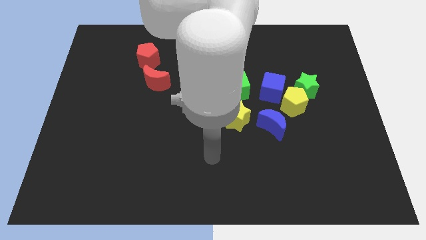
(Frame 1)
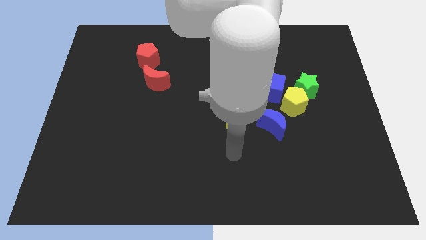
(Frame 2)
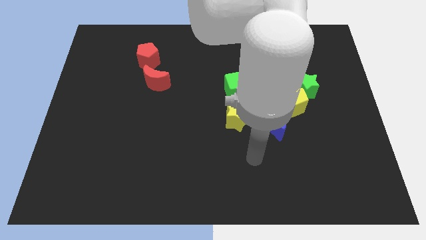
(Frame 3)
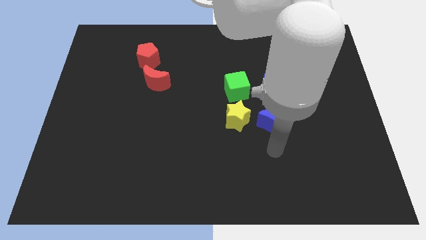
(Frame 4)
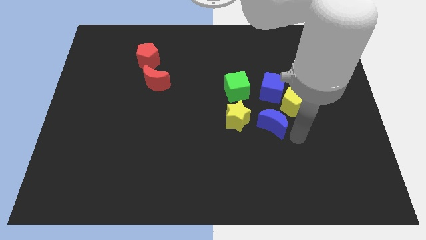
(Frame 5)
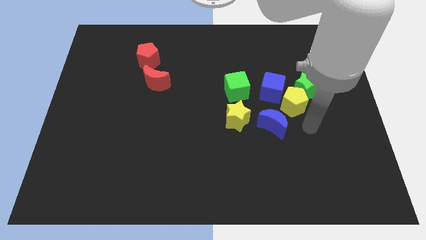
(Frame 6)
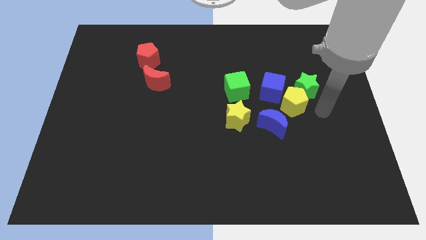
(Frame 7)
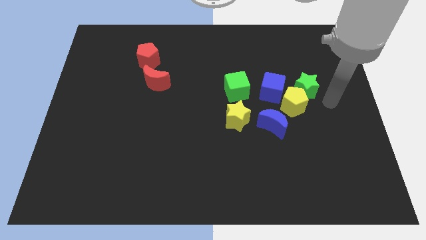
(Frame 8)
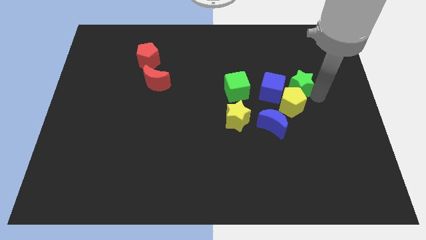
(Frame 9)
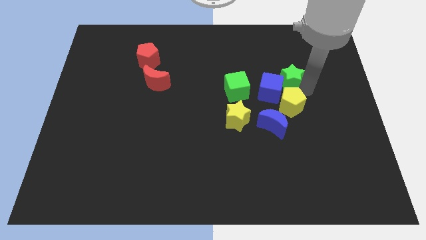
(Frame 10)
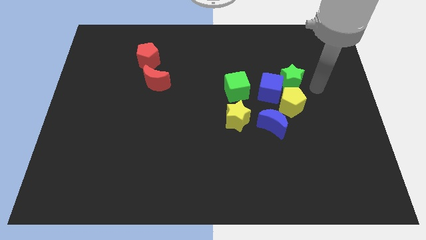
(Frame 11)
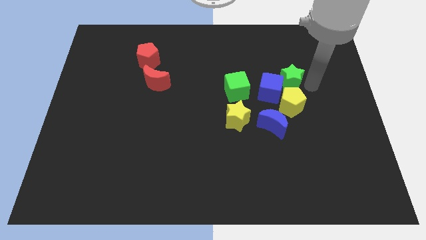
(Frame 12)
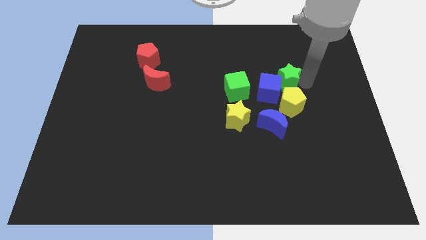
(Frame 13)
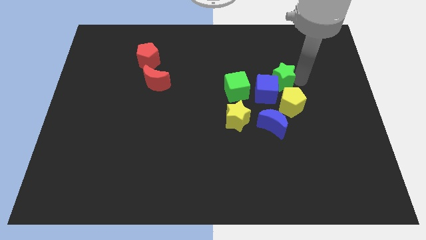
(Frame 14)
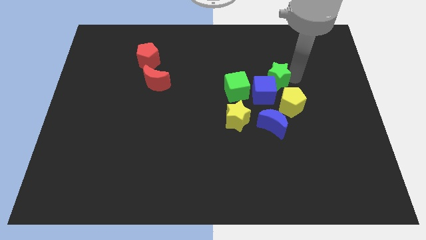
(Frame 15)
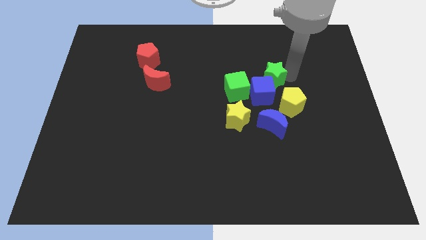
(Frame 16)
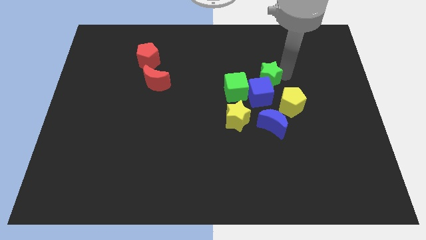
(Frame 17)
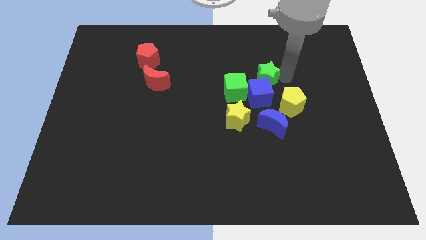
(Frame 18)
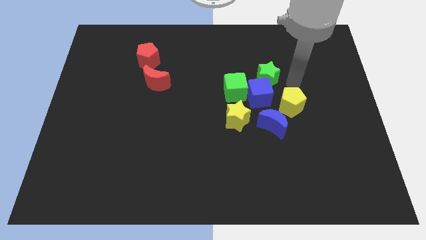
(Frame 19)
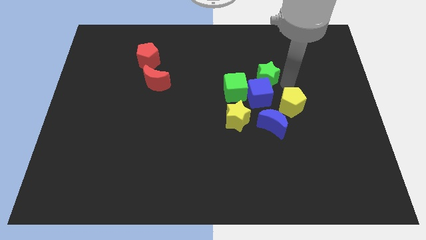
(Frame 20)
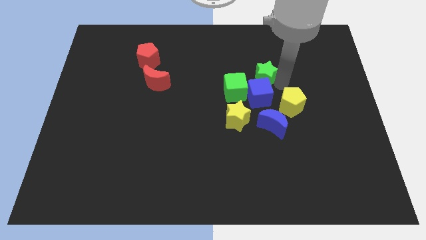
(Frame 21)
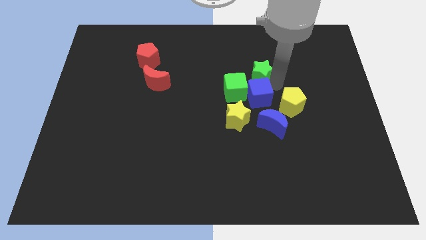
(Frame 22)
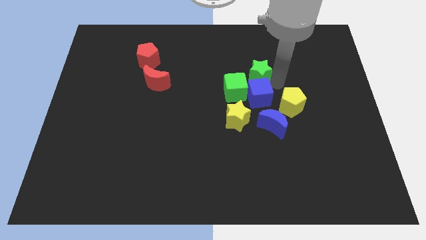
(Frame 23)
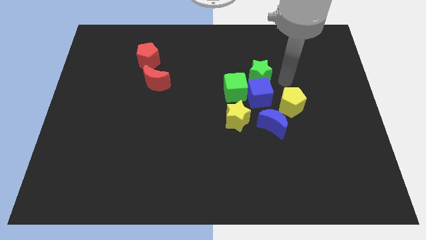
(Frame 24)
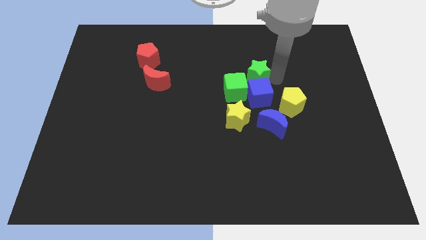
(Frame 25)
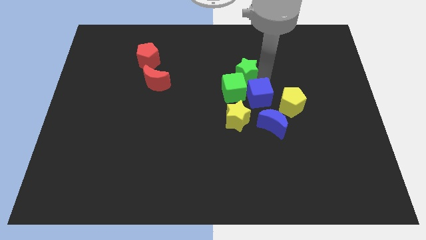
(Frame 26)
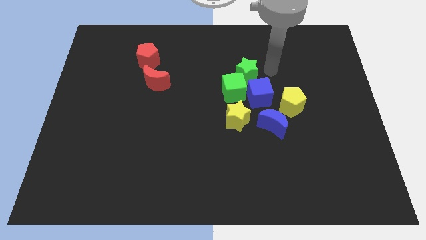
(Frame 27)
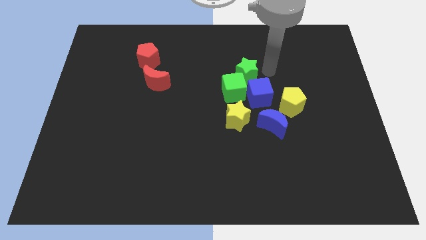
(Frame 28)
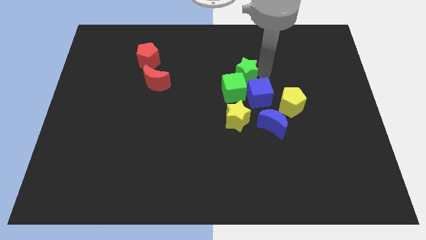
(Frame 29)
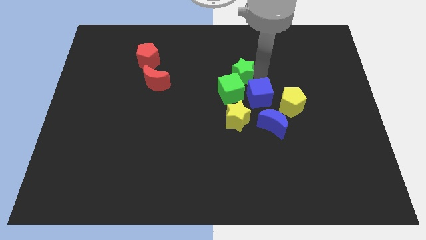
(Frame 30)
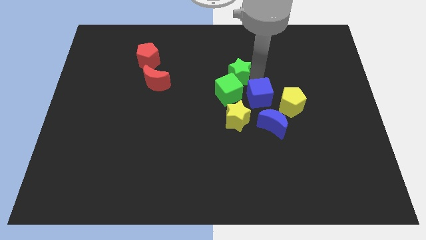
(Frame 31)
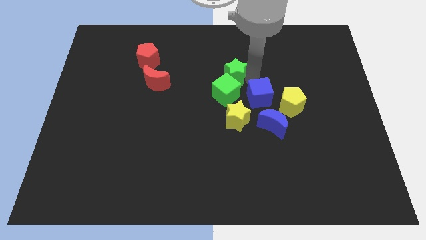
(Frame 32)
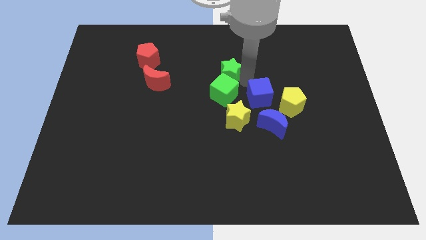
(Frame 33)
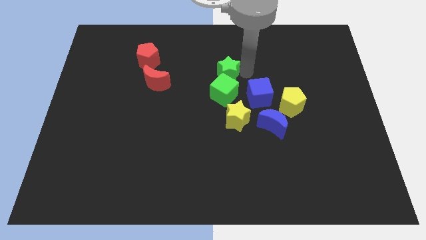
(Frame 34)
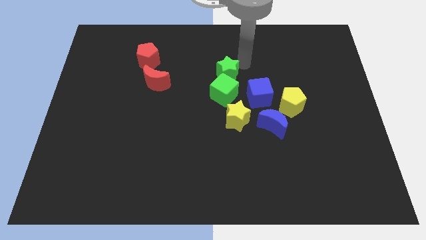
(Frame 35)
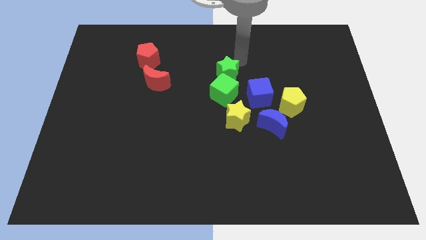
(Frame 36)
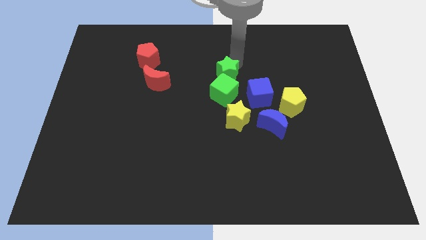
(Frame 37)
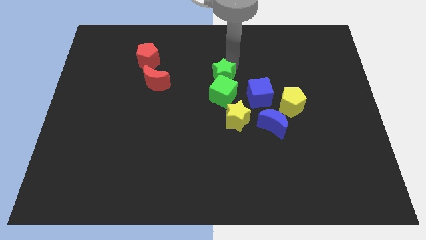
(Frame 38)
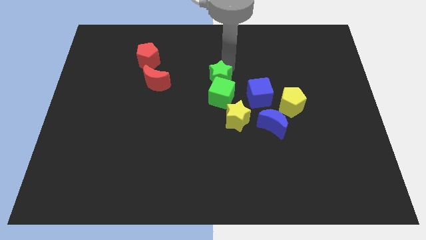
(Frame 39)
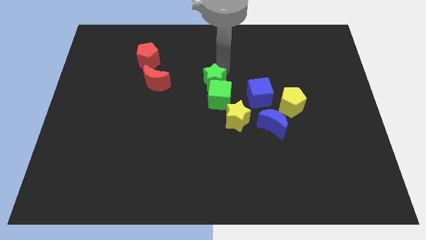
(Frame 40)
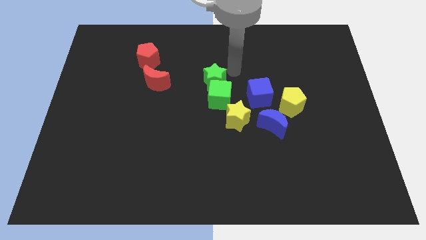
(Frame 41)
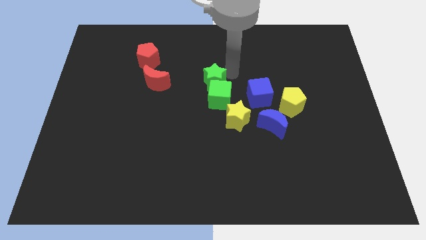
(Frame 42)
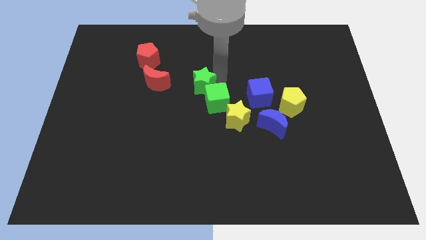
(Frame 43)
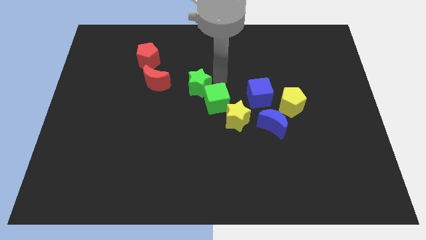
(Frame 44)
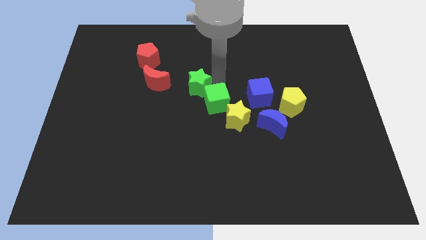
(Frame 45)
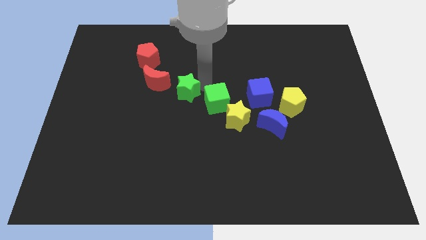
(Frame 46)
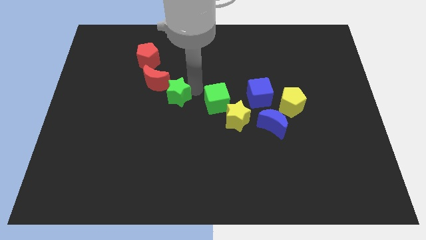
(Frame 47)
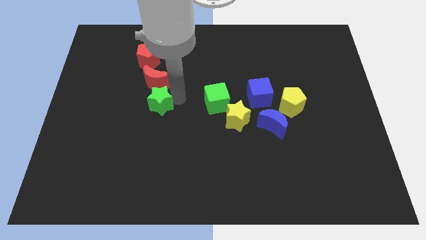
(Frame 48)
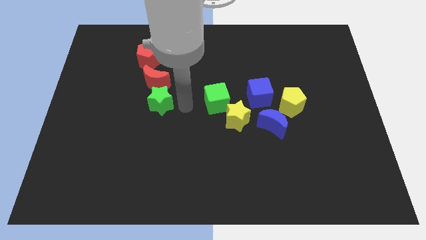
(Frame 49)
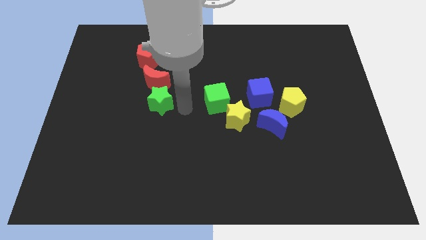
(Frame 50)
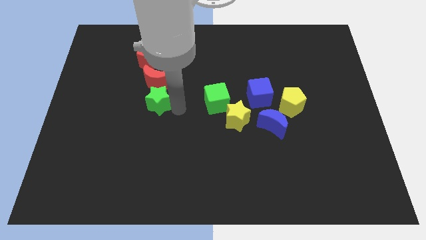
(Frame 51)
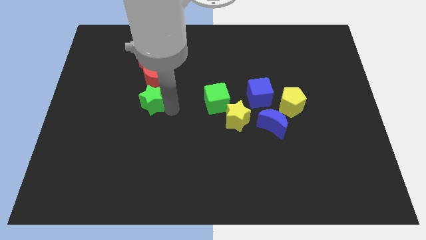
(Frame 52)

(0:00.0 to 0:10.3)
put the green star to the bottom left side of the red moon

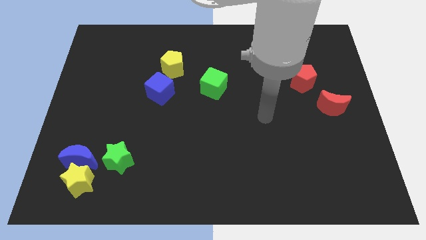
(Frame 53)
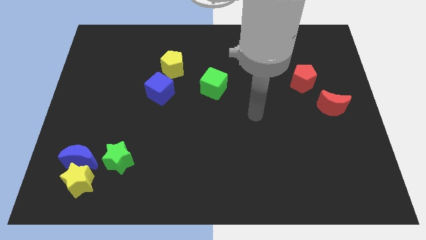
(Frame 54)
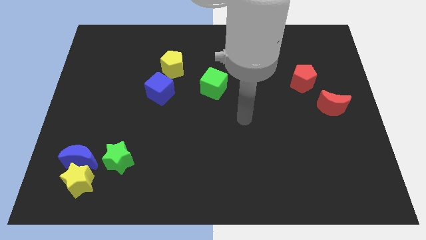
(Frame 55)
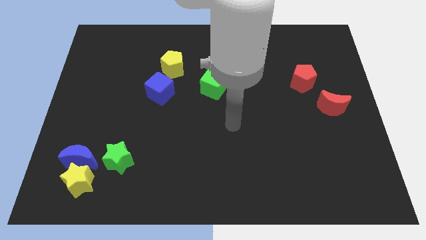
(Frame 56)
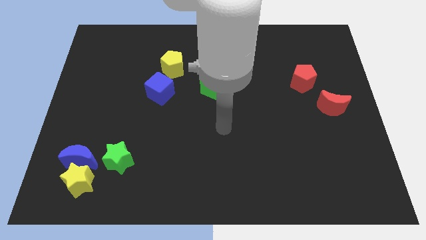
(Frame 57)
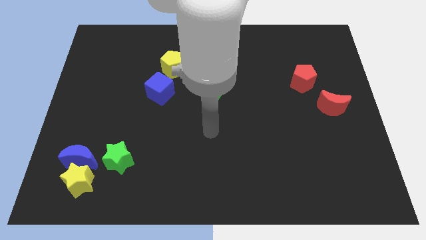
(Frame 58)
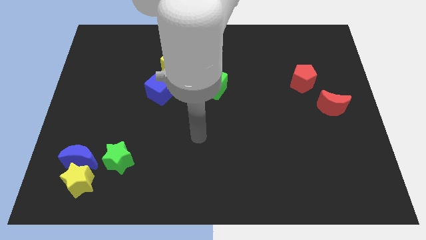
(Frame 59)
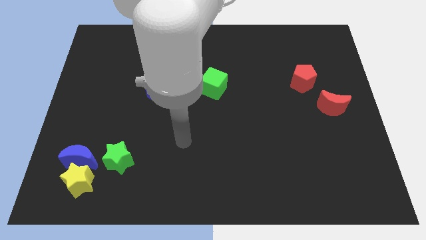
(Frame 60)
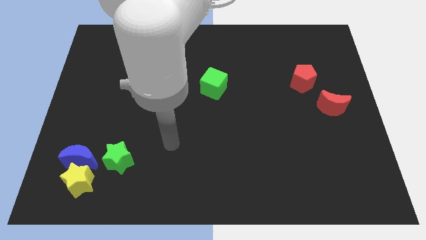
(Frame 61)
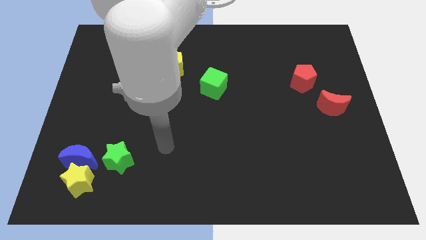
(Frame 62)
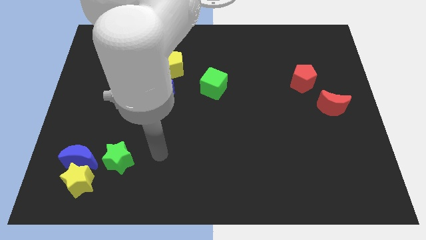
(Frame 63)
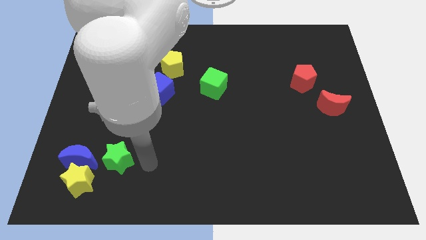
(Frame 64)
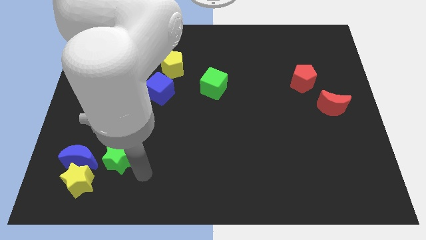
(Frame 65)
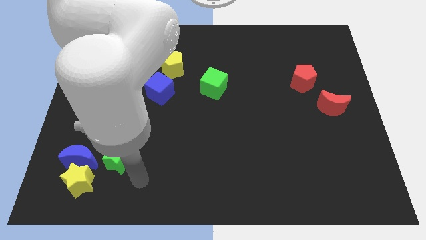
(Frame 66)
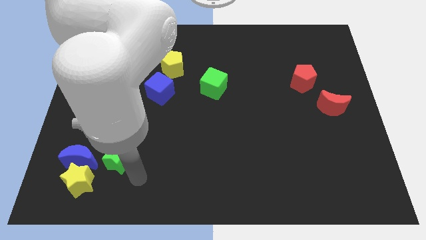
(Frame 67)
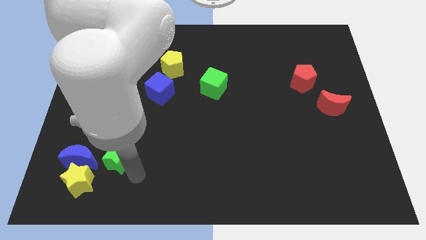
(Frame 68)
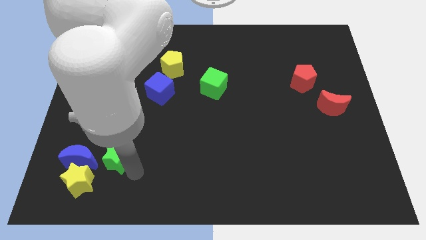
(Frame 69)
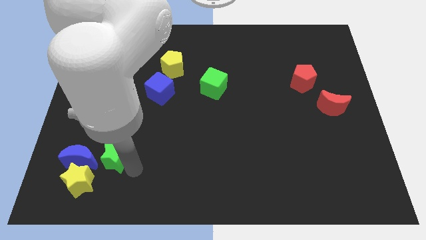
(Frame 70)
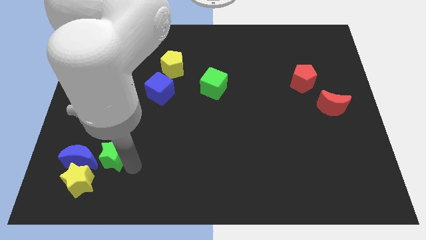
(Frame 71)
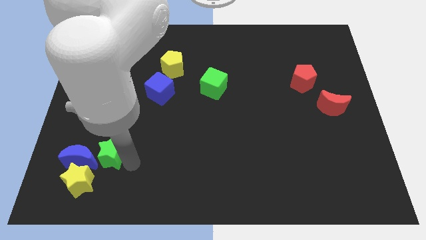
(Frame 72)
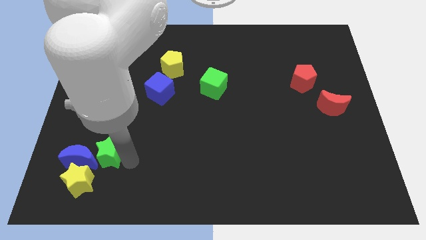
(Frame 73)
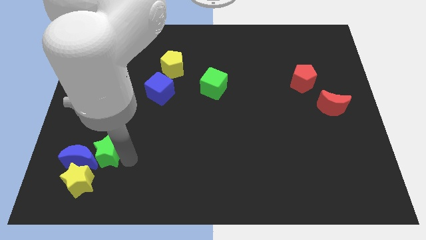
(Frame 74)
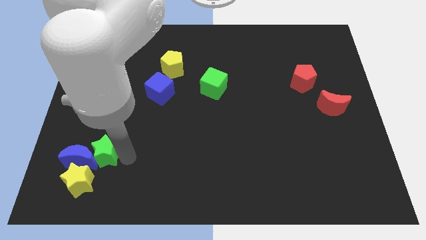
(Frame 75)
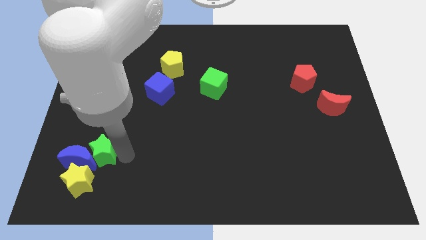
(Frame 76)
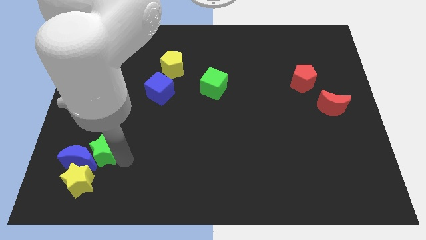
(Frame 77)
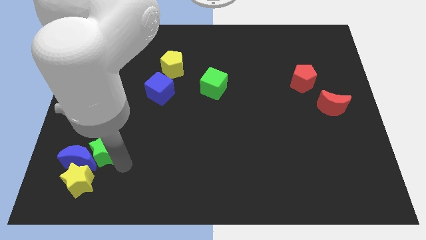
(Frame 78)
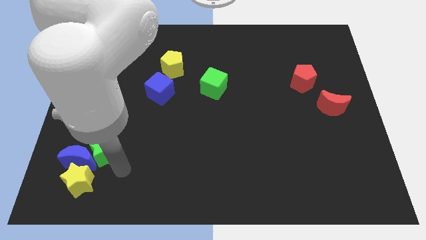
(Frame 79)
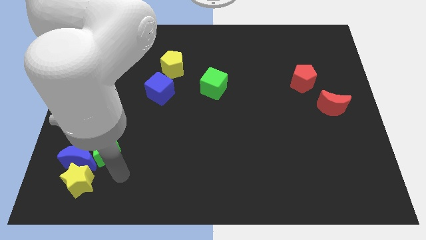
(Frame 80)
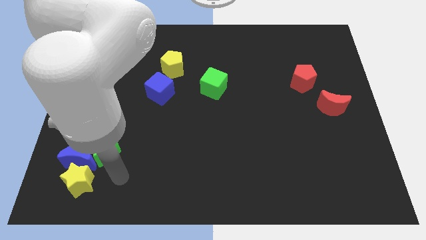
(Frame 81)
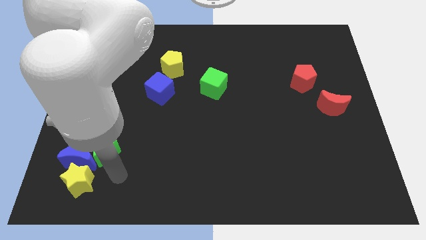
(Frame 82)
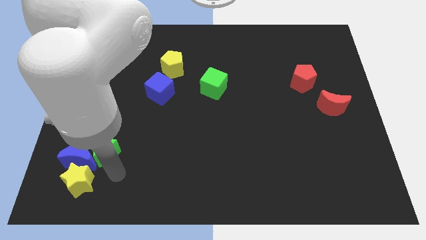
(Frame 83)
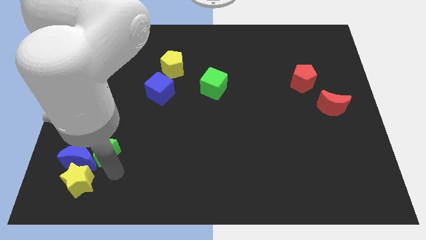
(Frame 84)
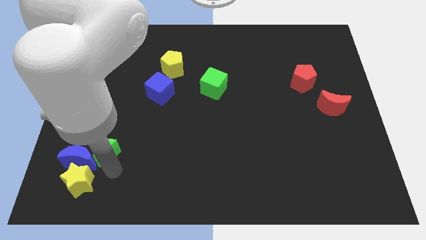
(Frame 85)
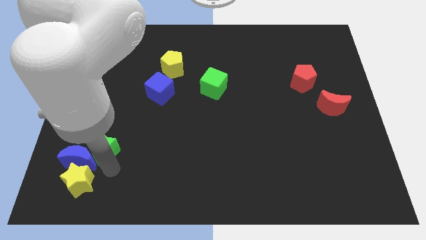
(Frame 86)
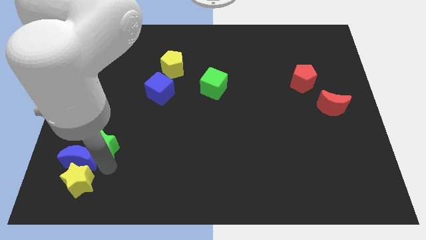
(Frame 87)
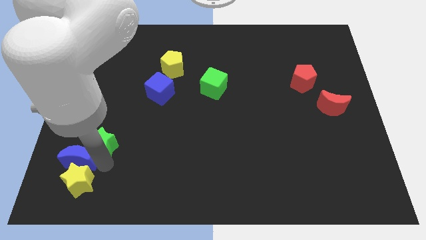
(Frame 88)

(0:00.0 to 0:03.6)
move the green star to the top side of the blue moon
